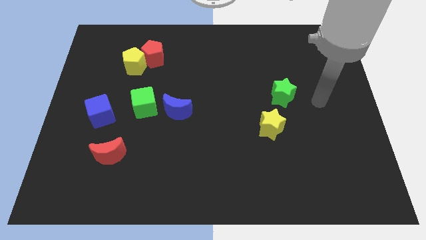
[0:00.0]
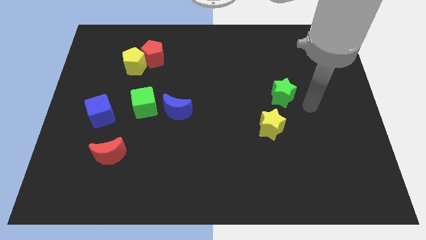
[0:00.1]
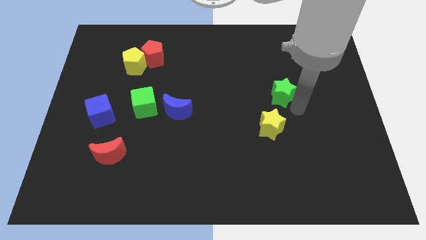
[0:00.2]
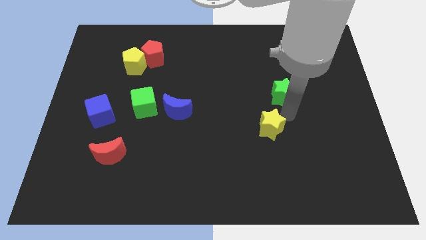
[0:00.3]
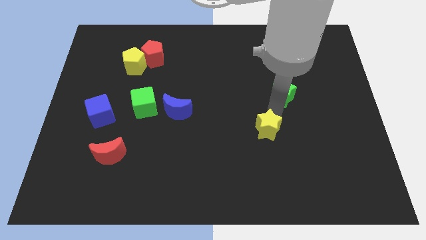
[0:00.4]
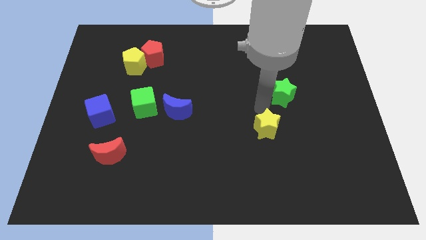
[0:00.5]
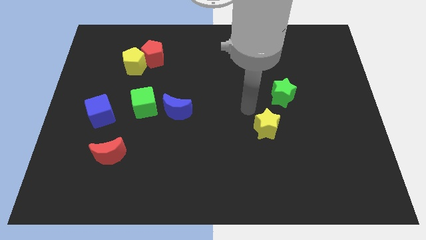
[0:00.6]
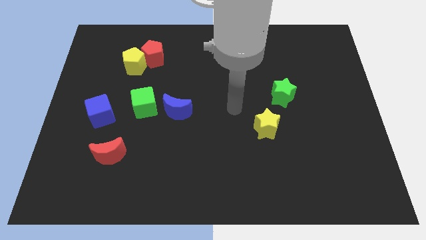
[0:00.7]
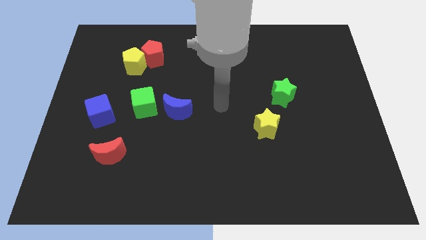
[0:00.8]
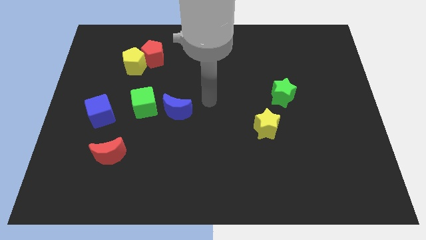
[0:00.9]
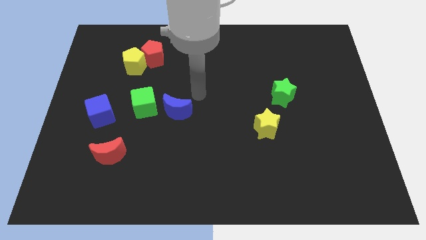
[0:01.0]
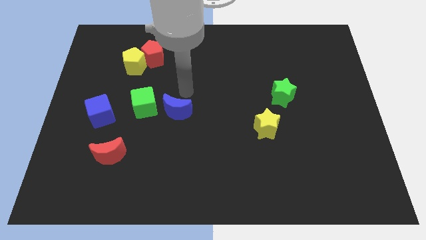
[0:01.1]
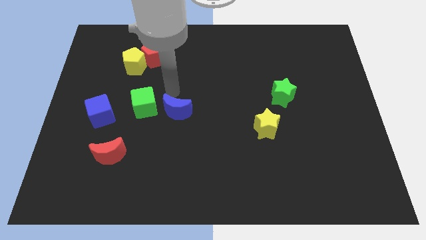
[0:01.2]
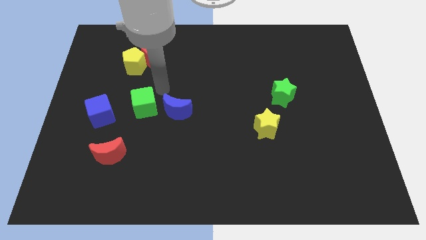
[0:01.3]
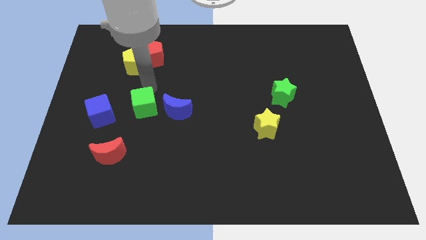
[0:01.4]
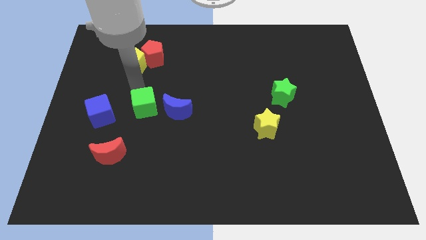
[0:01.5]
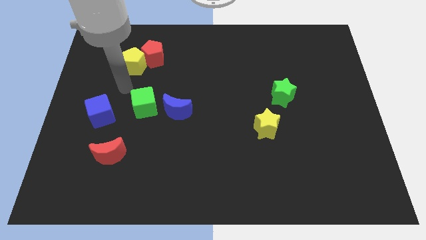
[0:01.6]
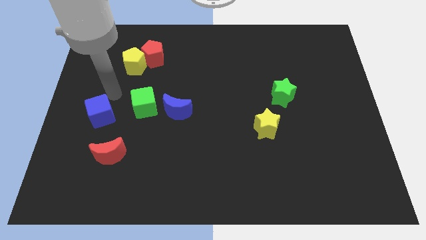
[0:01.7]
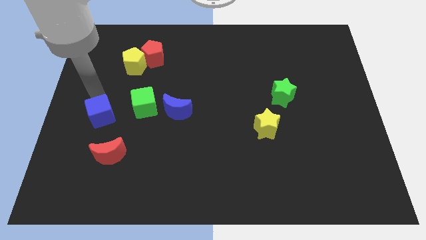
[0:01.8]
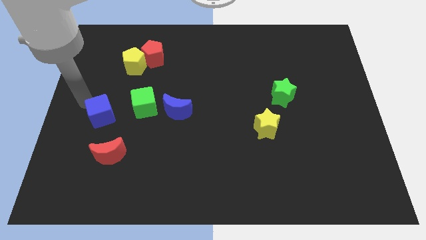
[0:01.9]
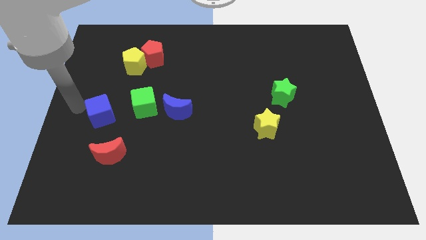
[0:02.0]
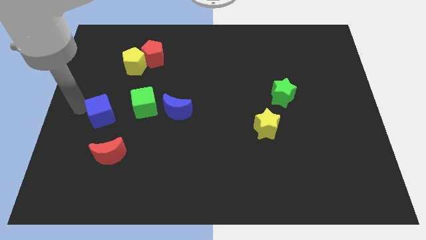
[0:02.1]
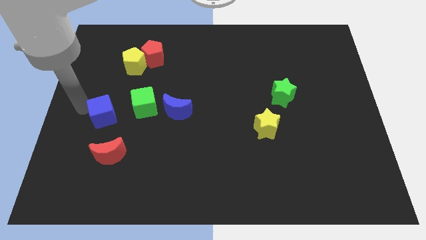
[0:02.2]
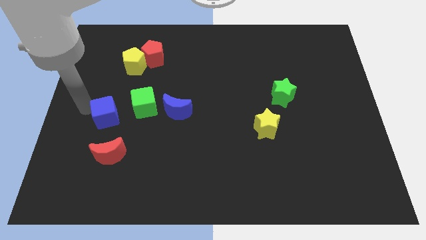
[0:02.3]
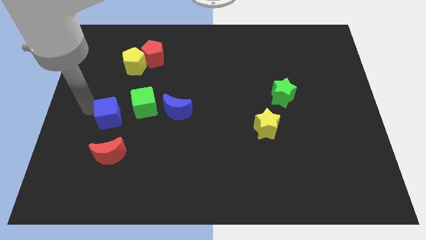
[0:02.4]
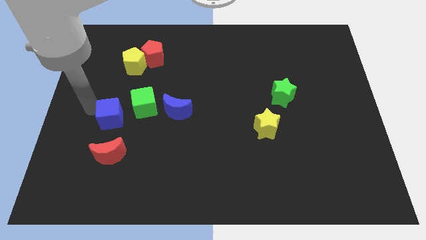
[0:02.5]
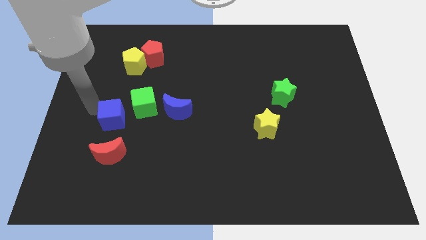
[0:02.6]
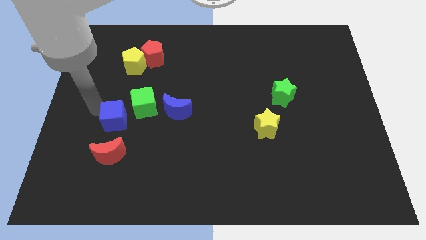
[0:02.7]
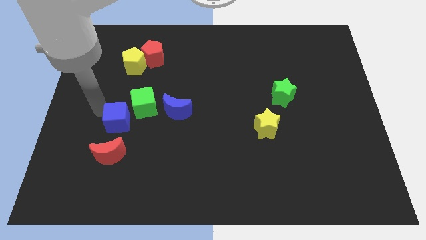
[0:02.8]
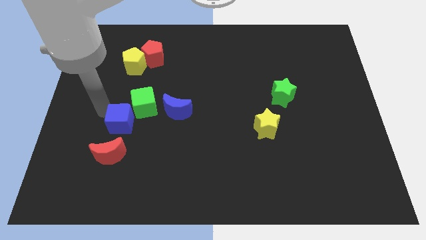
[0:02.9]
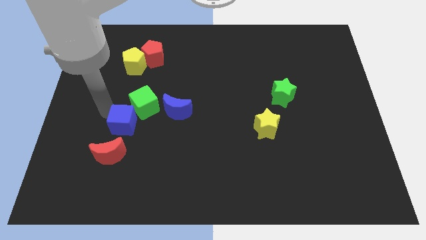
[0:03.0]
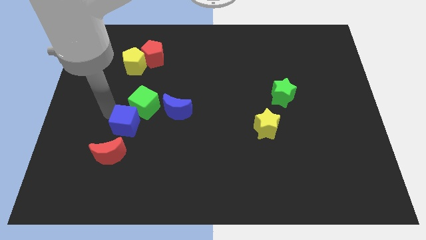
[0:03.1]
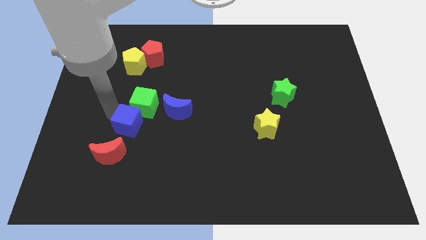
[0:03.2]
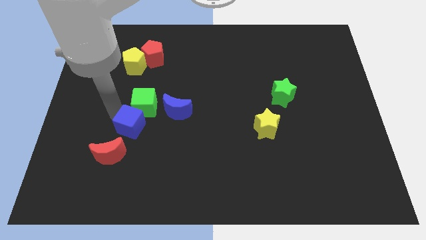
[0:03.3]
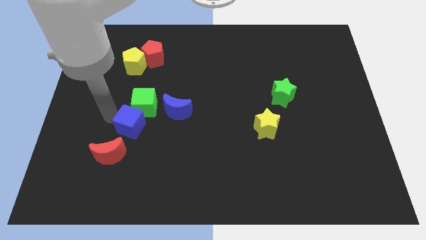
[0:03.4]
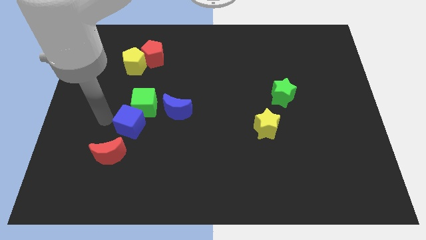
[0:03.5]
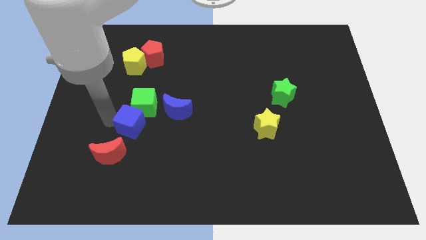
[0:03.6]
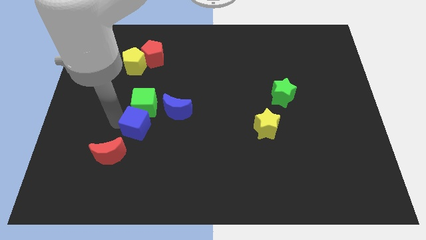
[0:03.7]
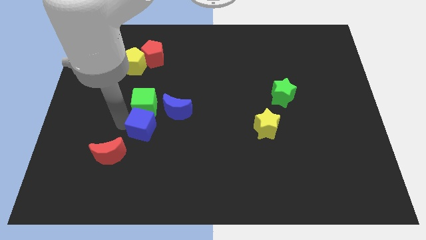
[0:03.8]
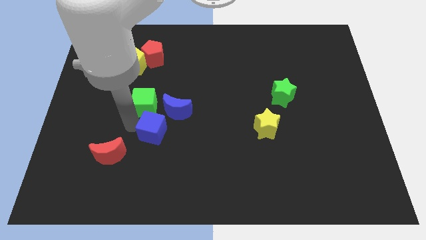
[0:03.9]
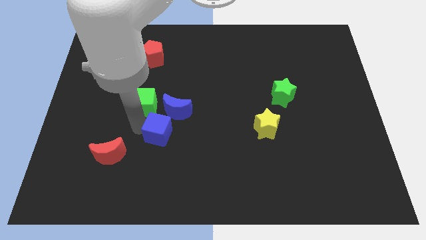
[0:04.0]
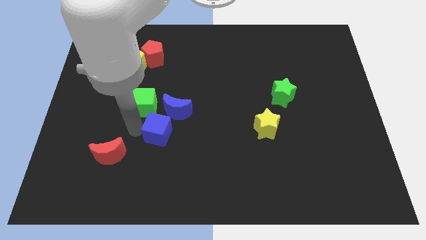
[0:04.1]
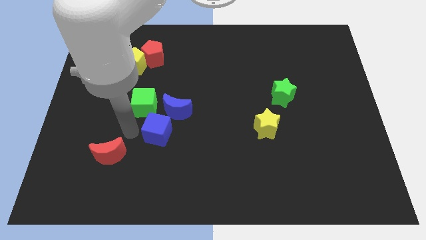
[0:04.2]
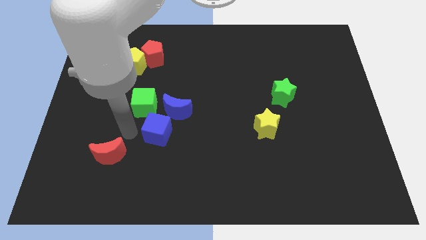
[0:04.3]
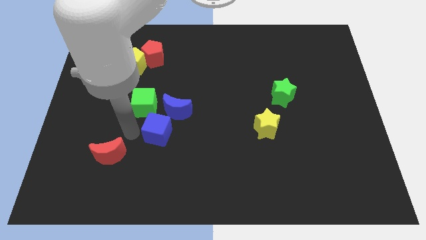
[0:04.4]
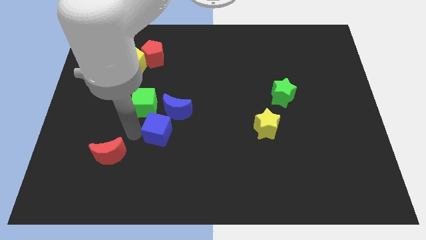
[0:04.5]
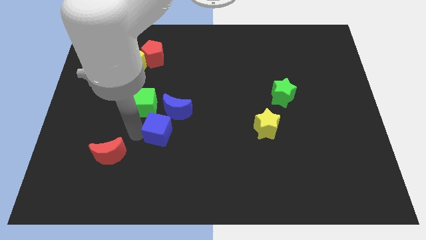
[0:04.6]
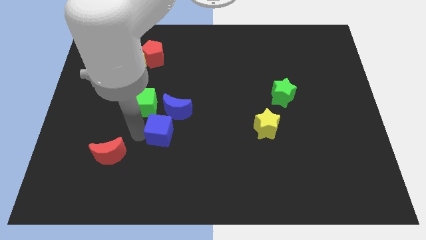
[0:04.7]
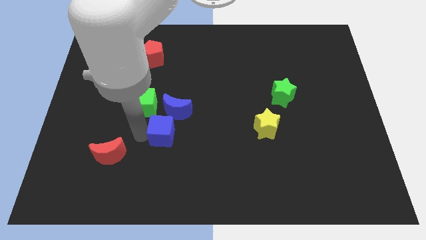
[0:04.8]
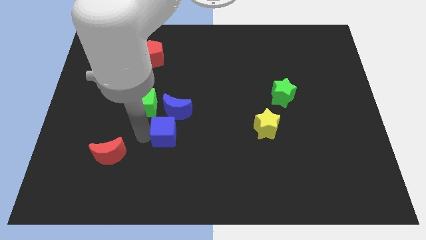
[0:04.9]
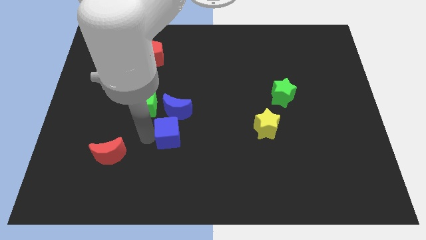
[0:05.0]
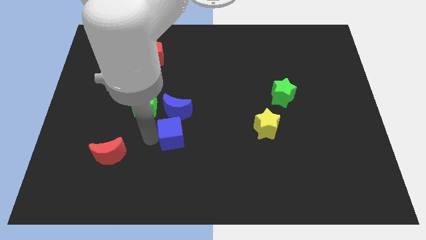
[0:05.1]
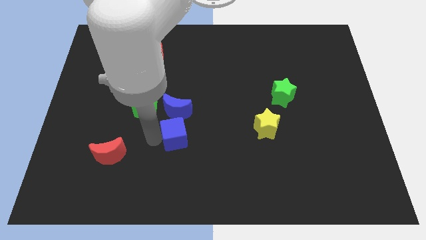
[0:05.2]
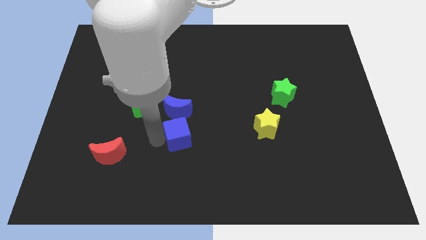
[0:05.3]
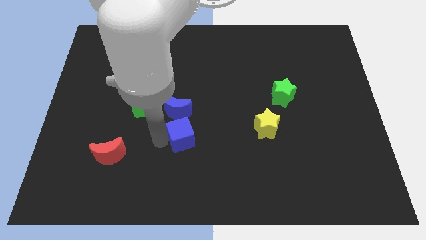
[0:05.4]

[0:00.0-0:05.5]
slide the blue cube to the center

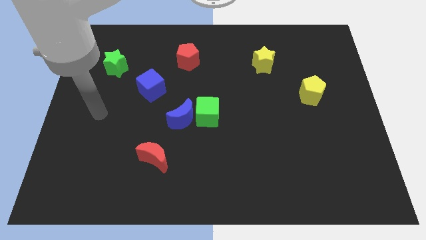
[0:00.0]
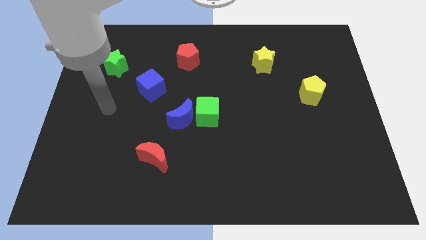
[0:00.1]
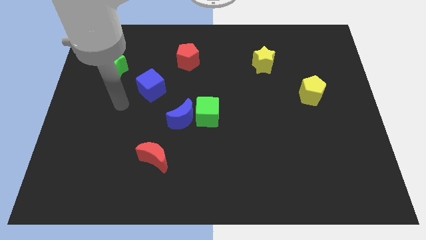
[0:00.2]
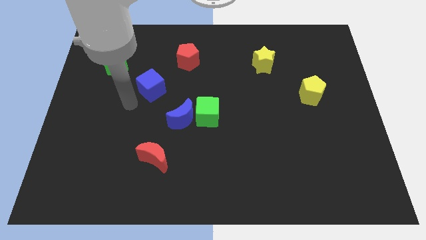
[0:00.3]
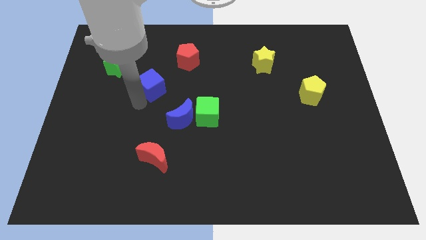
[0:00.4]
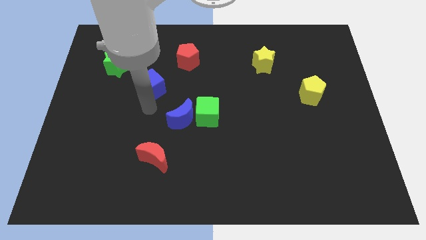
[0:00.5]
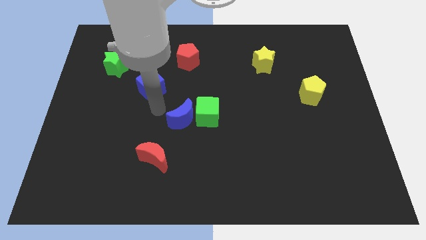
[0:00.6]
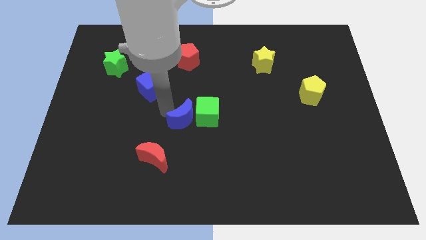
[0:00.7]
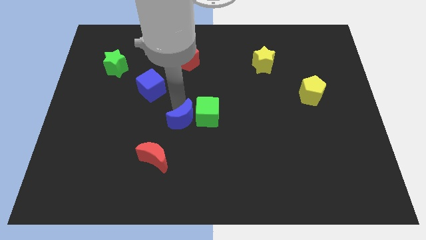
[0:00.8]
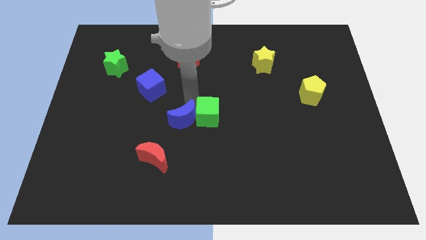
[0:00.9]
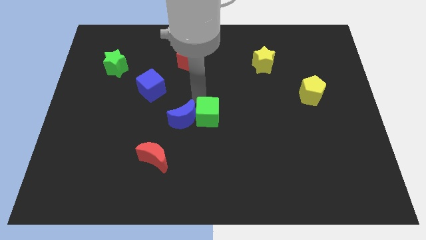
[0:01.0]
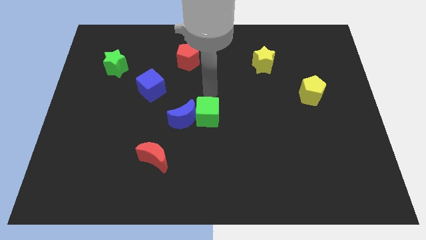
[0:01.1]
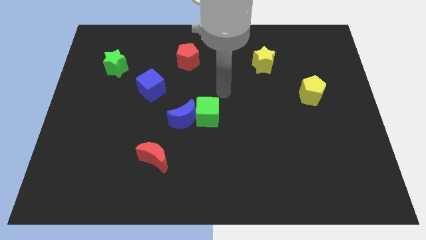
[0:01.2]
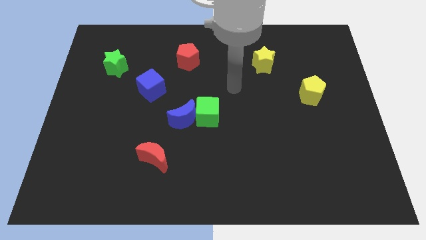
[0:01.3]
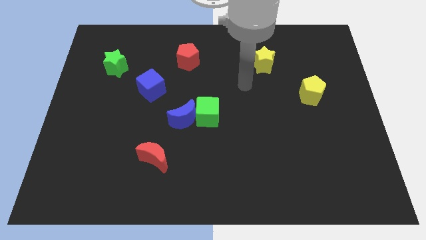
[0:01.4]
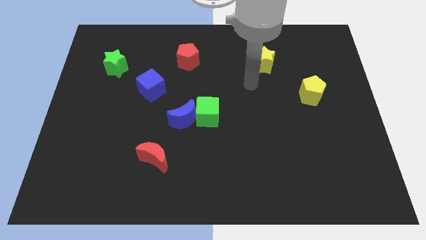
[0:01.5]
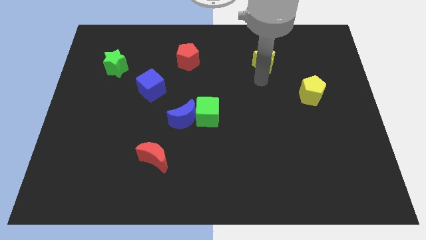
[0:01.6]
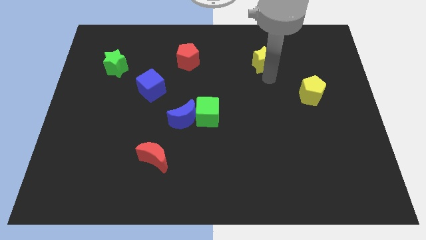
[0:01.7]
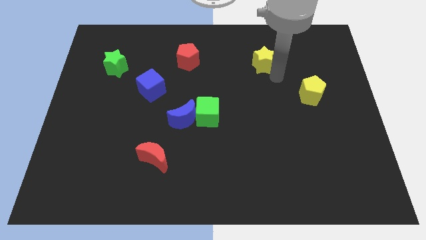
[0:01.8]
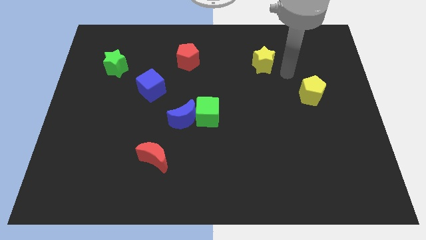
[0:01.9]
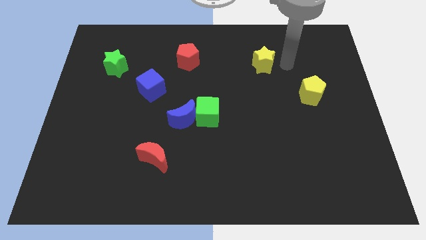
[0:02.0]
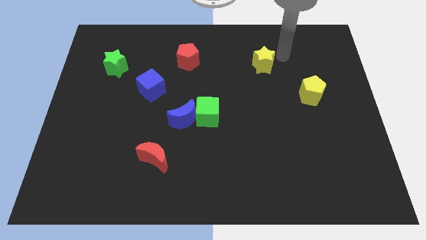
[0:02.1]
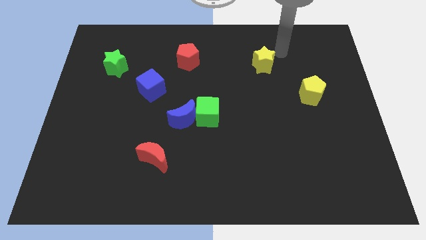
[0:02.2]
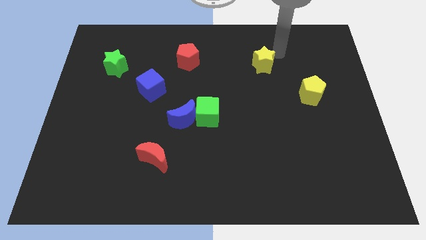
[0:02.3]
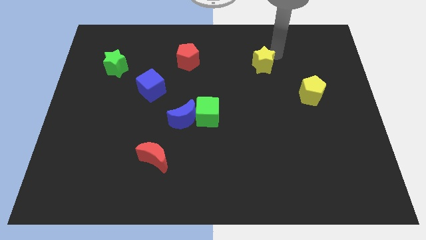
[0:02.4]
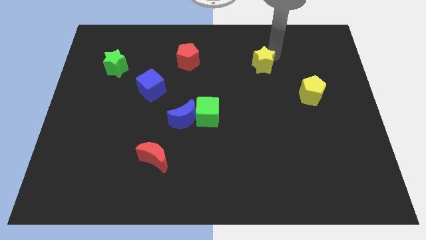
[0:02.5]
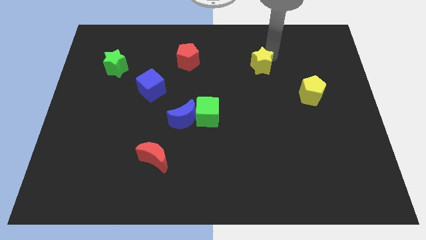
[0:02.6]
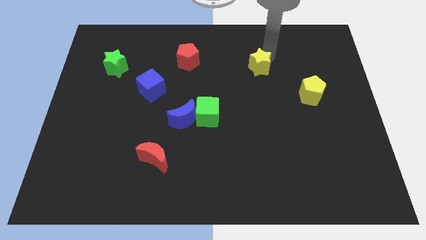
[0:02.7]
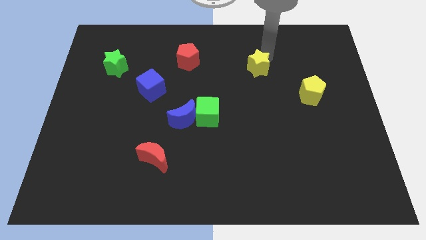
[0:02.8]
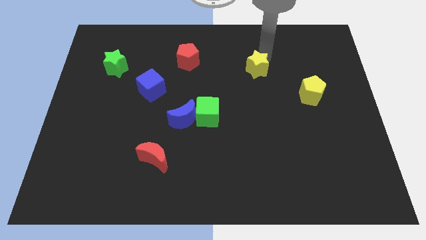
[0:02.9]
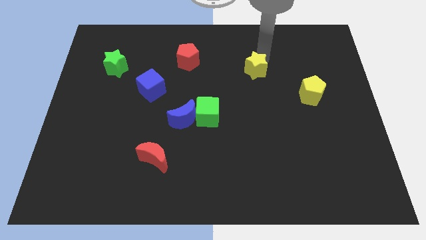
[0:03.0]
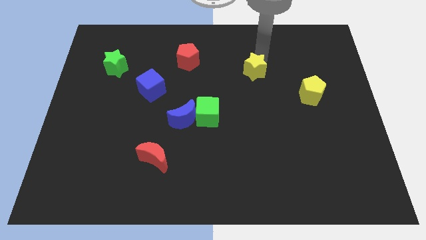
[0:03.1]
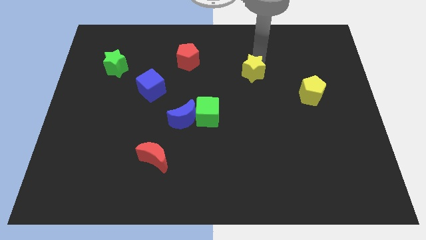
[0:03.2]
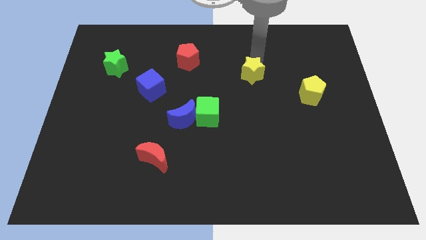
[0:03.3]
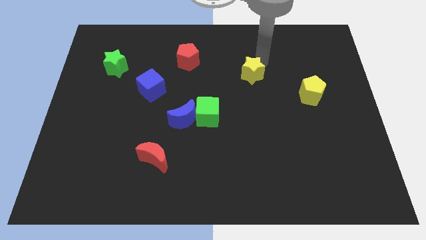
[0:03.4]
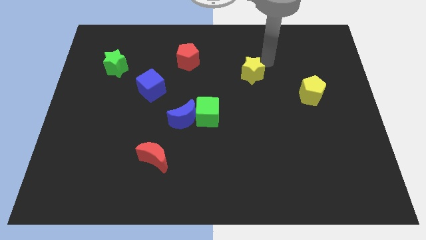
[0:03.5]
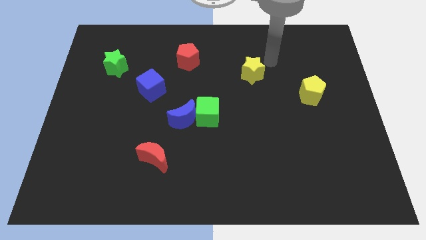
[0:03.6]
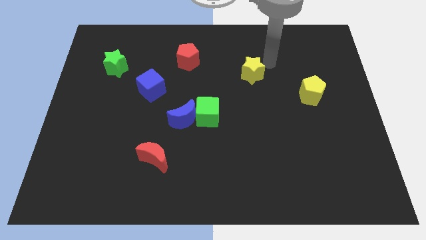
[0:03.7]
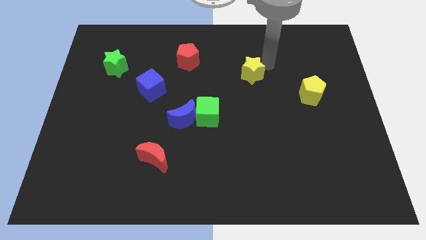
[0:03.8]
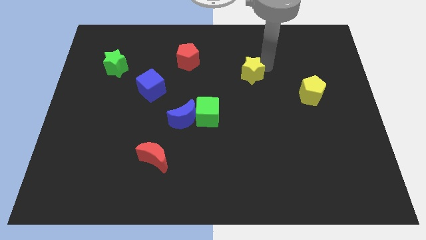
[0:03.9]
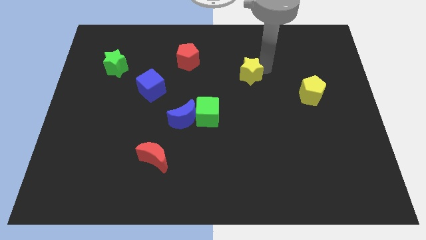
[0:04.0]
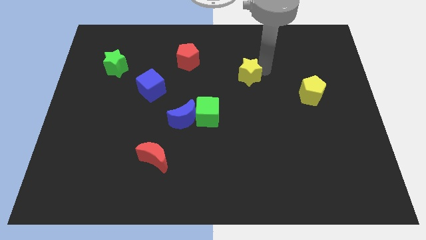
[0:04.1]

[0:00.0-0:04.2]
put the yellow star to the middle
